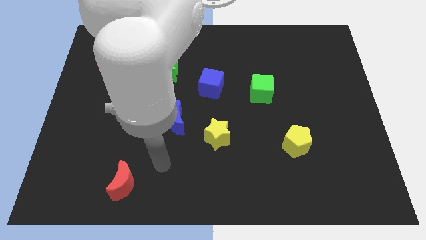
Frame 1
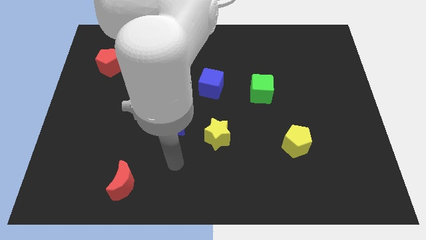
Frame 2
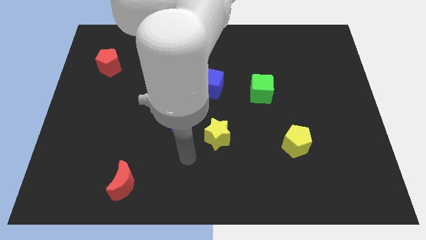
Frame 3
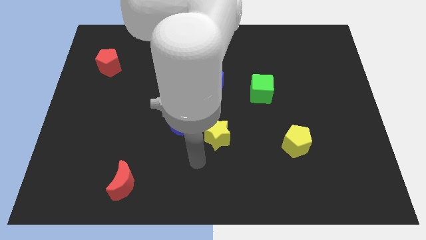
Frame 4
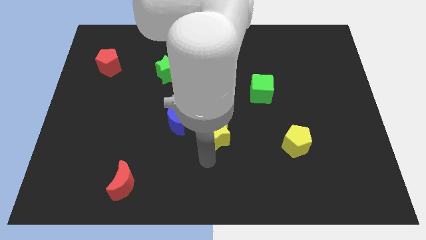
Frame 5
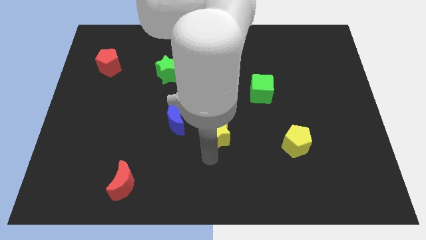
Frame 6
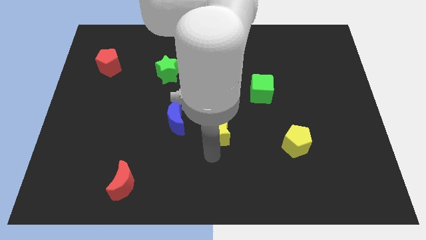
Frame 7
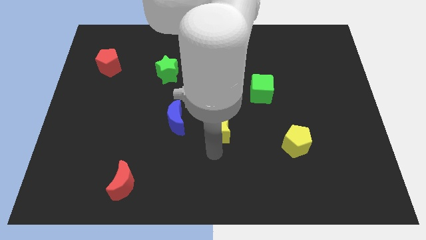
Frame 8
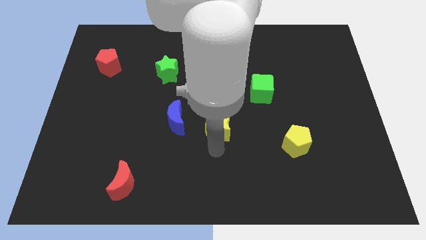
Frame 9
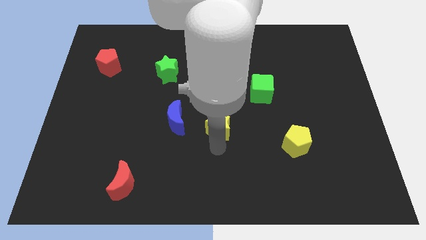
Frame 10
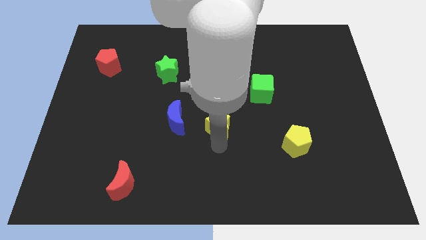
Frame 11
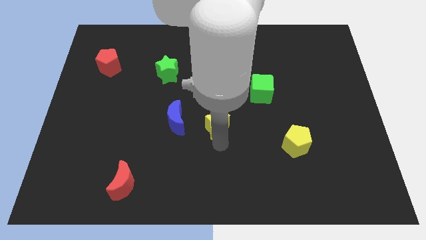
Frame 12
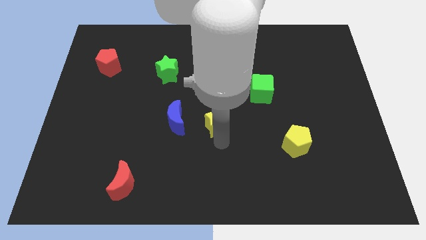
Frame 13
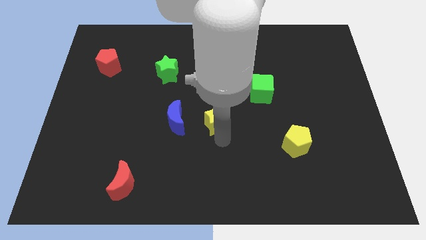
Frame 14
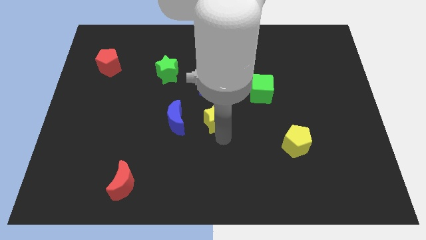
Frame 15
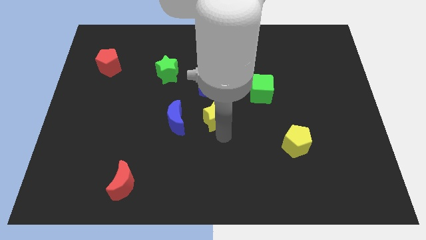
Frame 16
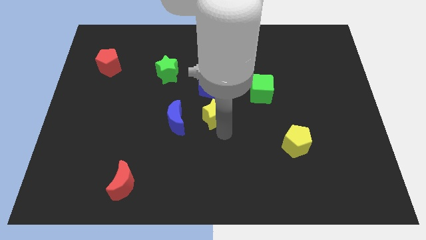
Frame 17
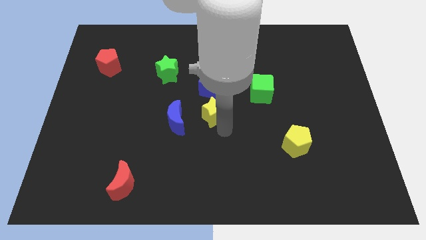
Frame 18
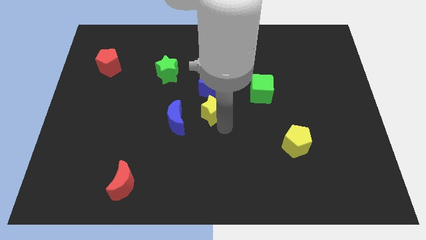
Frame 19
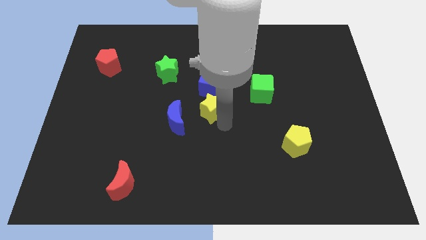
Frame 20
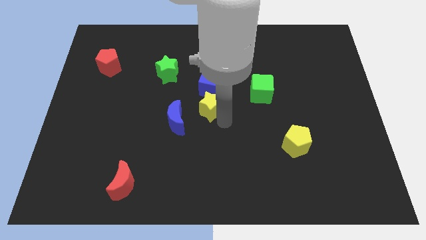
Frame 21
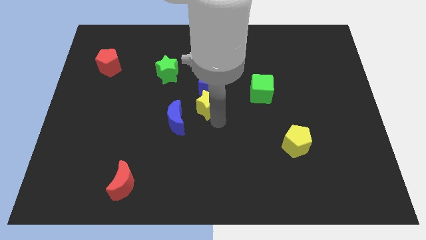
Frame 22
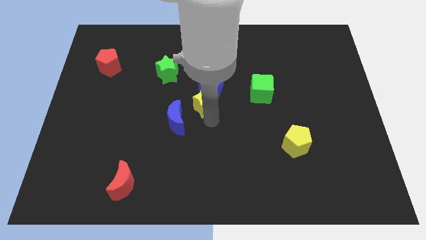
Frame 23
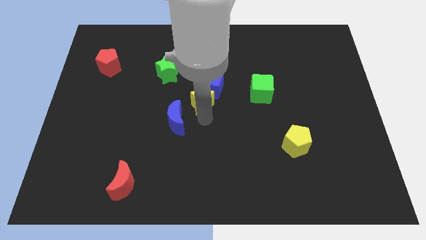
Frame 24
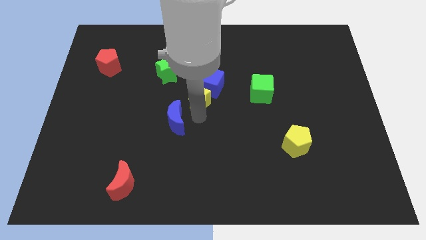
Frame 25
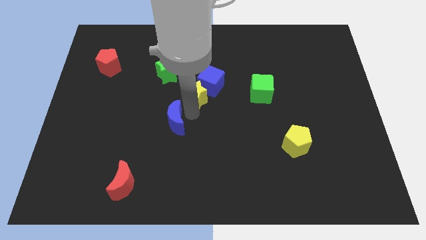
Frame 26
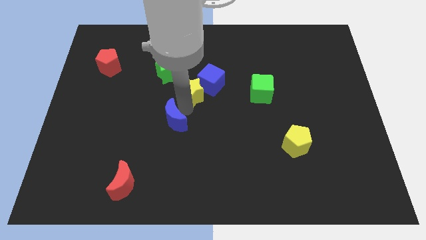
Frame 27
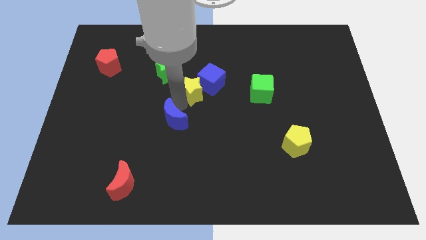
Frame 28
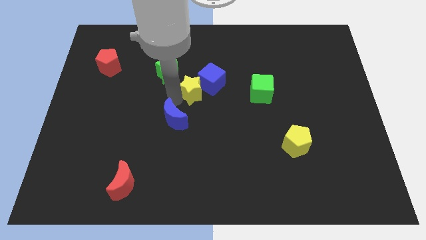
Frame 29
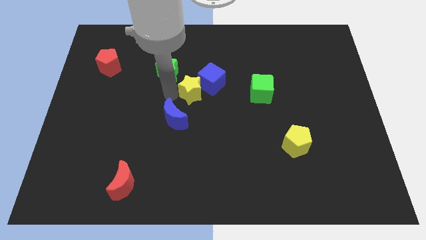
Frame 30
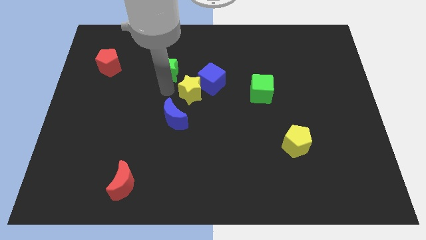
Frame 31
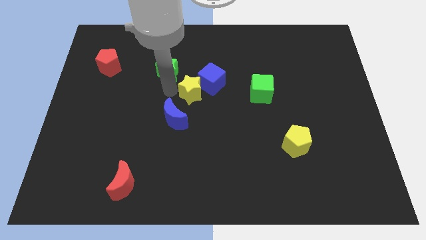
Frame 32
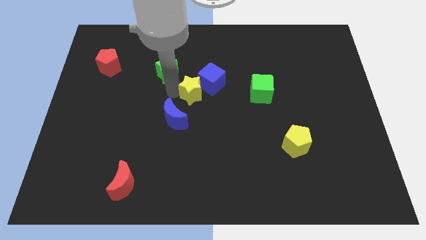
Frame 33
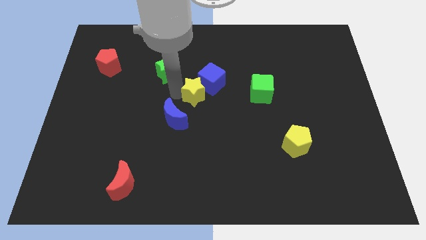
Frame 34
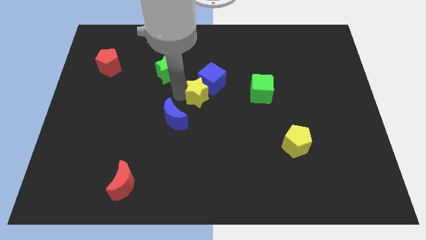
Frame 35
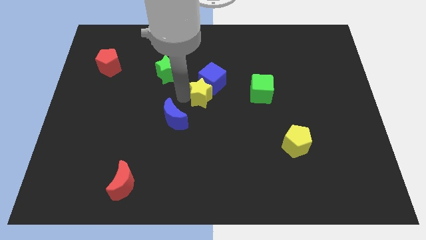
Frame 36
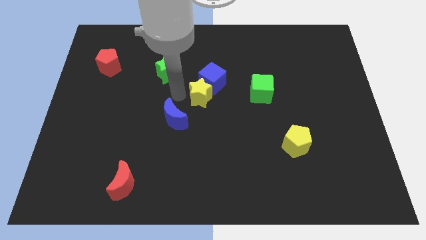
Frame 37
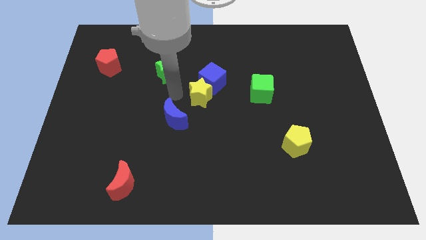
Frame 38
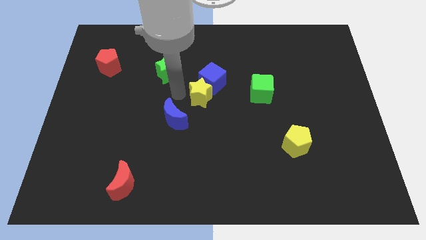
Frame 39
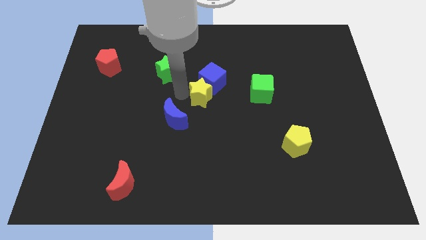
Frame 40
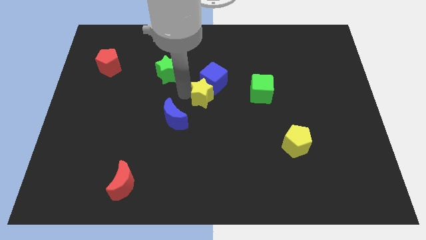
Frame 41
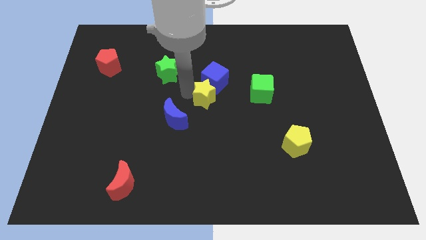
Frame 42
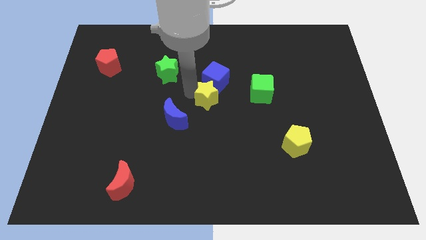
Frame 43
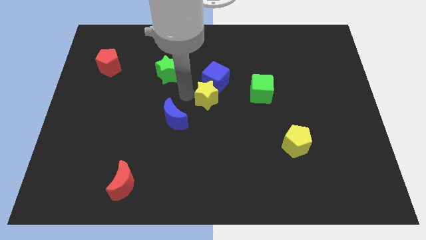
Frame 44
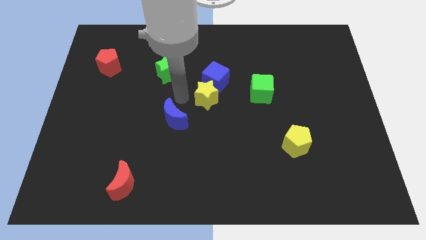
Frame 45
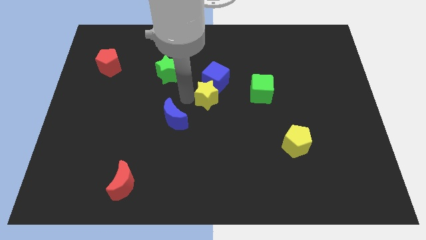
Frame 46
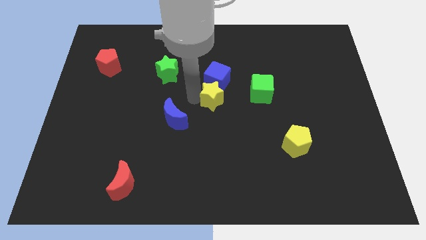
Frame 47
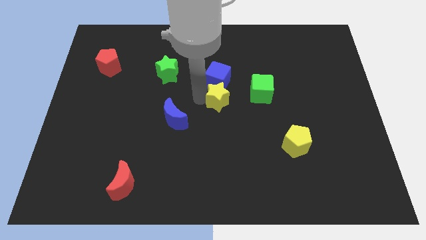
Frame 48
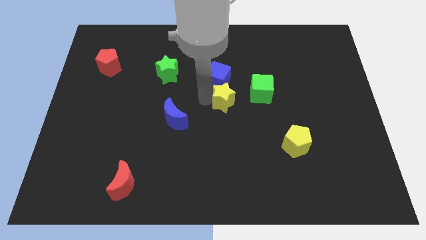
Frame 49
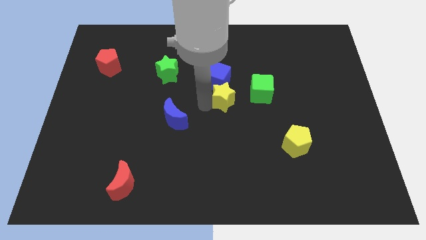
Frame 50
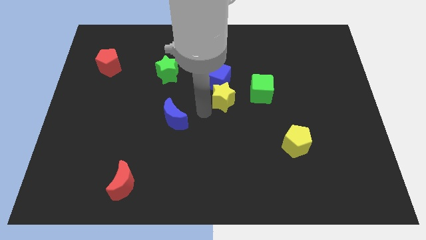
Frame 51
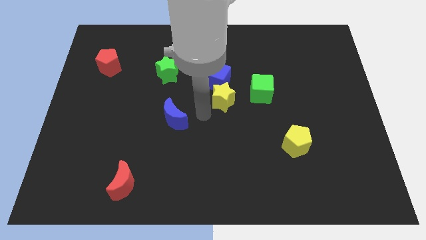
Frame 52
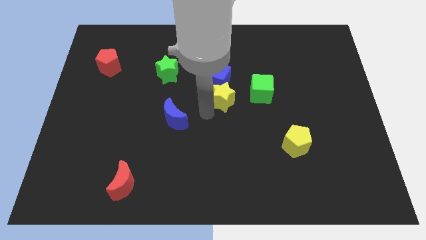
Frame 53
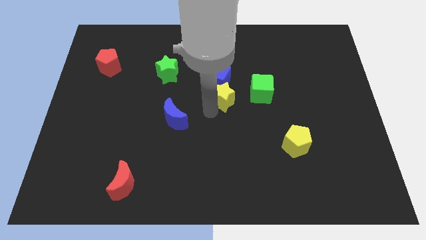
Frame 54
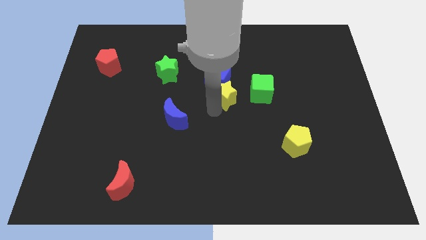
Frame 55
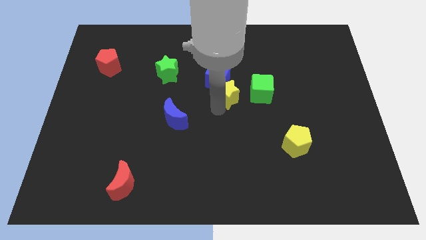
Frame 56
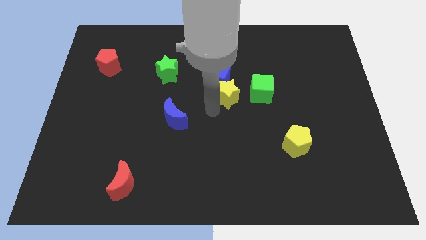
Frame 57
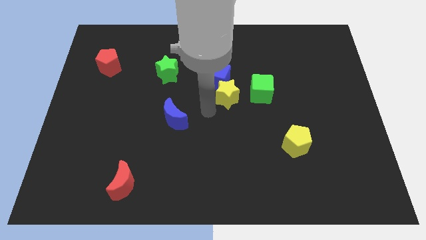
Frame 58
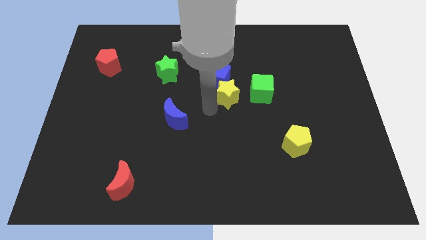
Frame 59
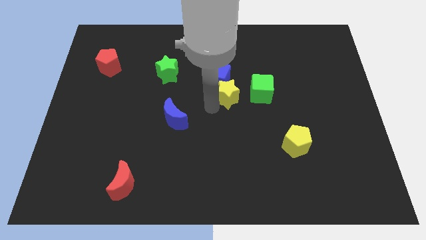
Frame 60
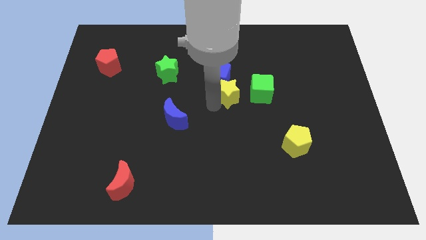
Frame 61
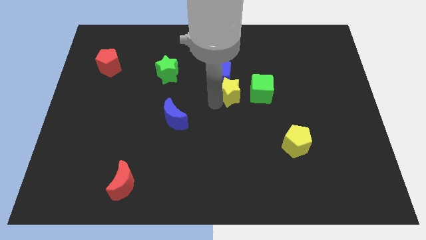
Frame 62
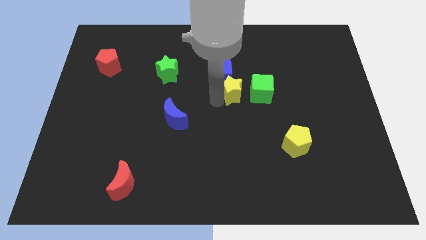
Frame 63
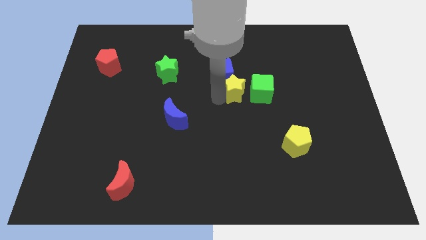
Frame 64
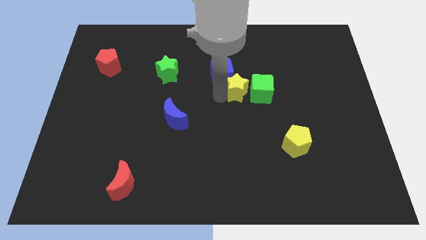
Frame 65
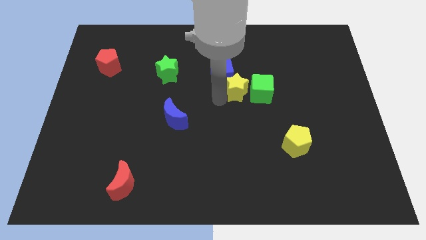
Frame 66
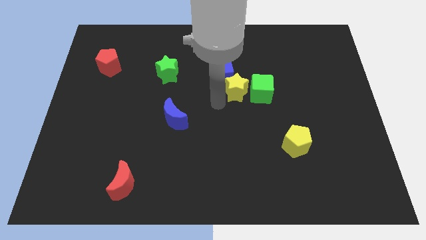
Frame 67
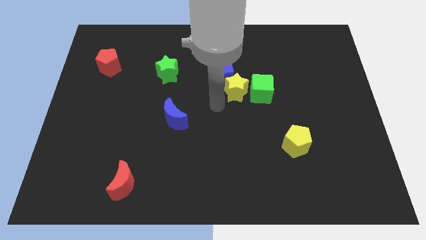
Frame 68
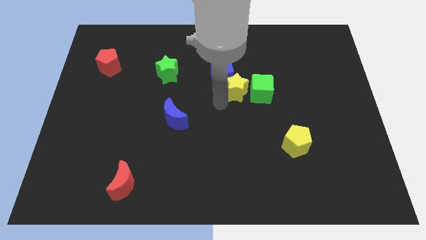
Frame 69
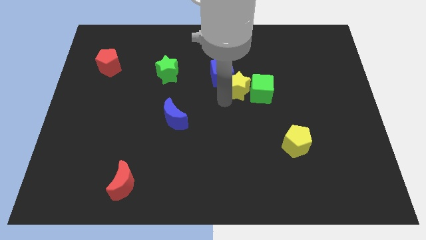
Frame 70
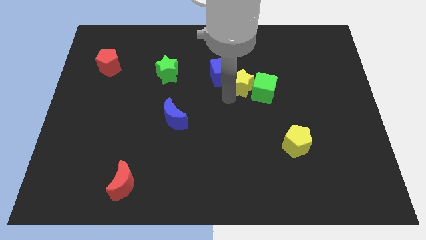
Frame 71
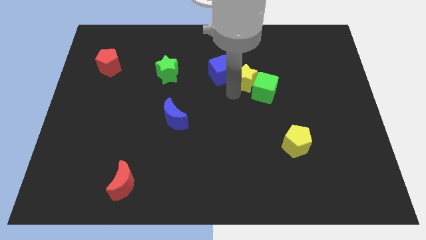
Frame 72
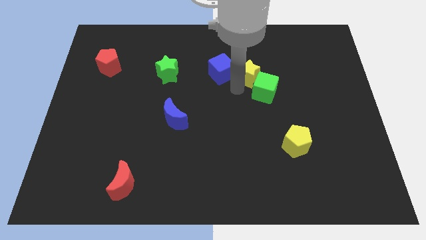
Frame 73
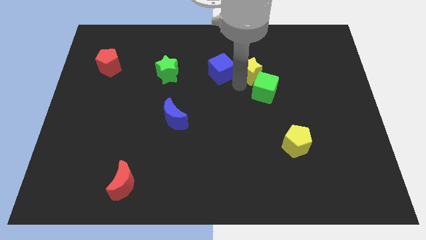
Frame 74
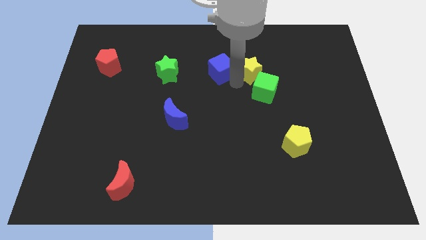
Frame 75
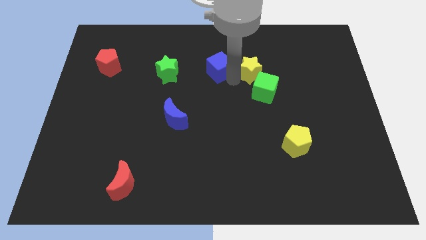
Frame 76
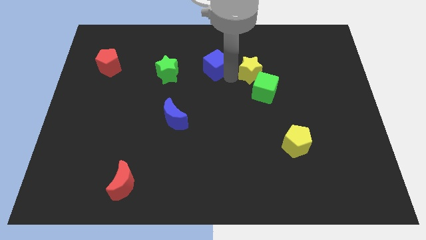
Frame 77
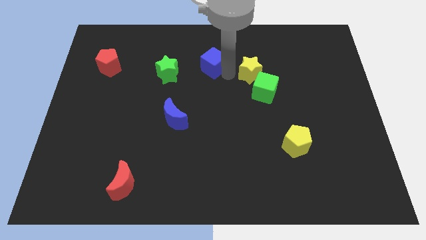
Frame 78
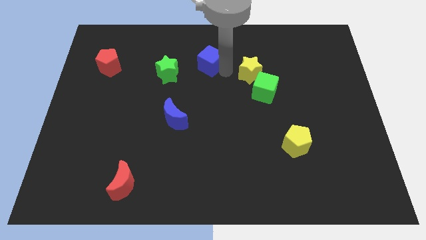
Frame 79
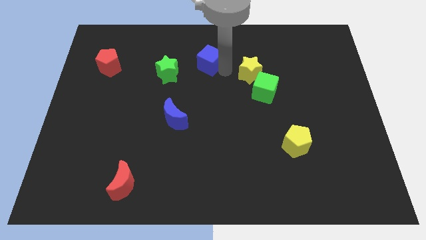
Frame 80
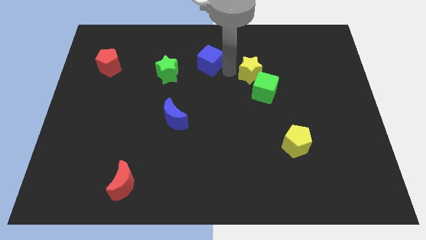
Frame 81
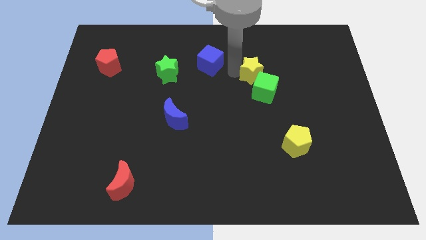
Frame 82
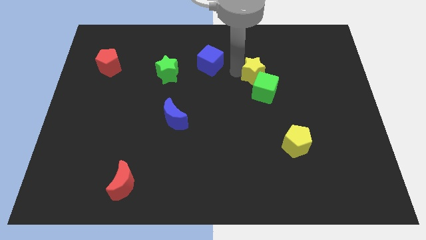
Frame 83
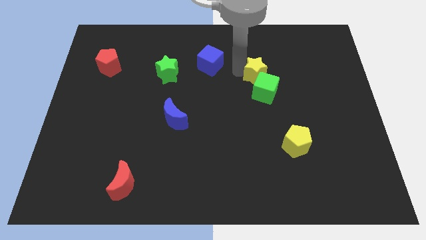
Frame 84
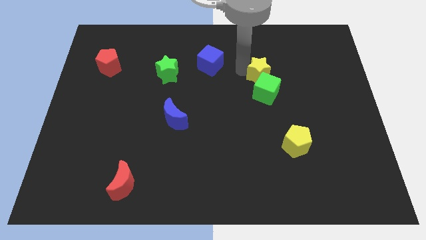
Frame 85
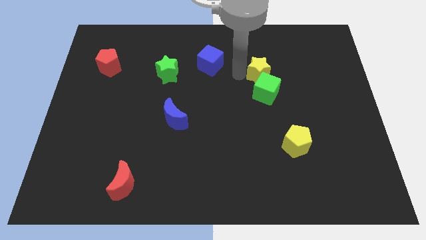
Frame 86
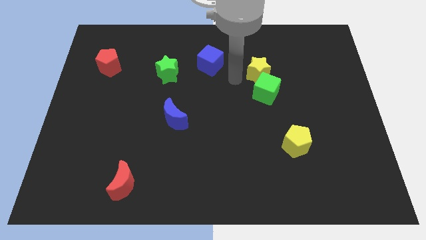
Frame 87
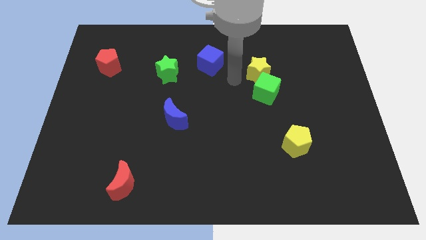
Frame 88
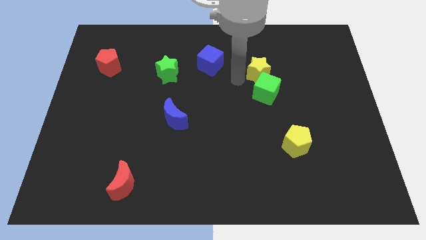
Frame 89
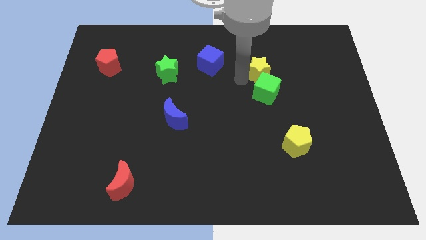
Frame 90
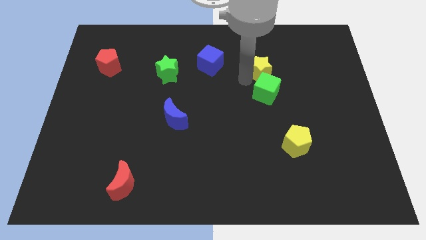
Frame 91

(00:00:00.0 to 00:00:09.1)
push the yellow star upwards and right diagonally
